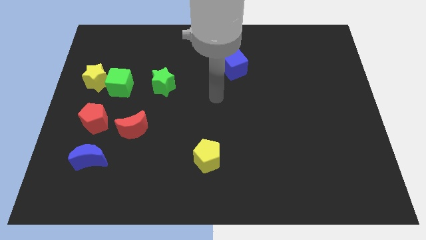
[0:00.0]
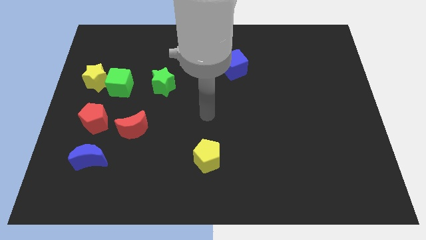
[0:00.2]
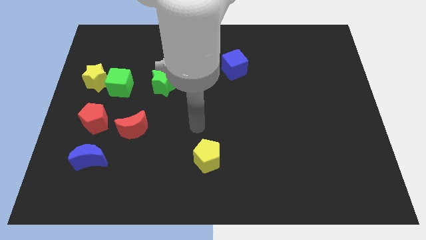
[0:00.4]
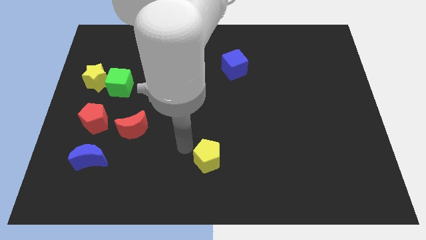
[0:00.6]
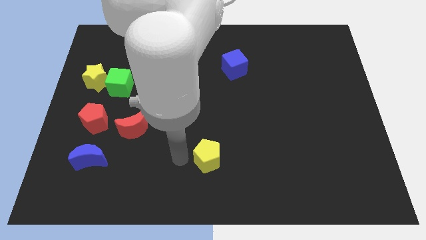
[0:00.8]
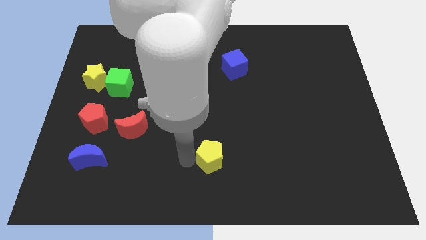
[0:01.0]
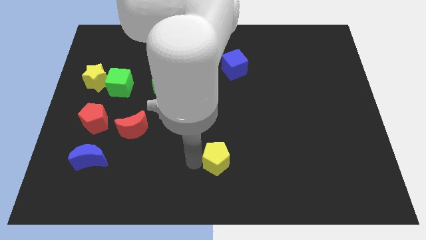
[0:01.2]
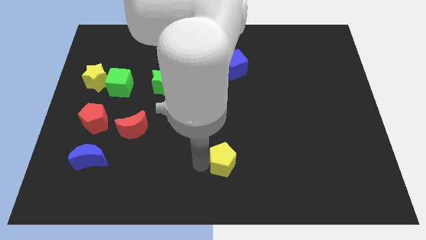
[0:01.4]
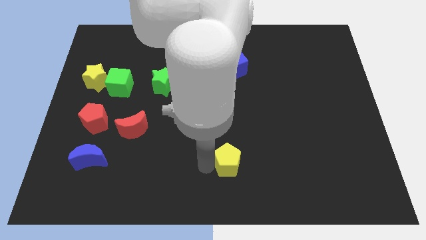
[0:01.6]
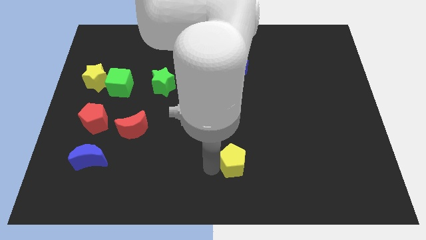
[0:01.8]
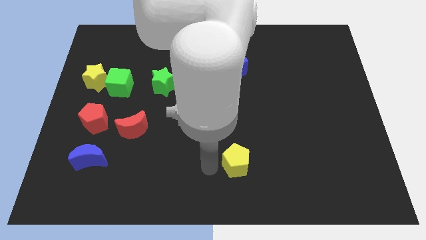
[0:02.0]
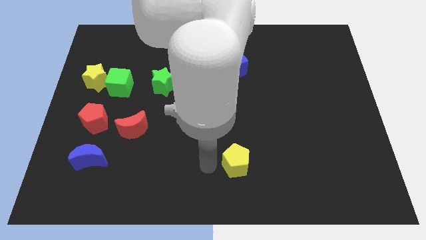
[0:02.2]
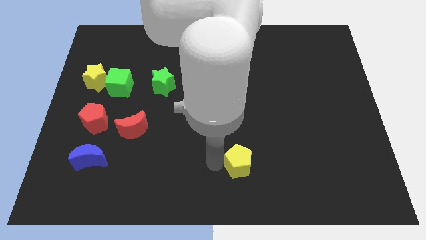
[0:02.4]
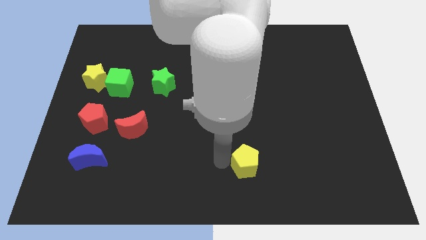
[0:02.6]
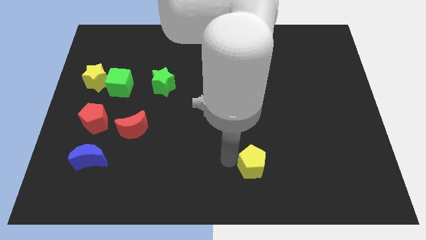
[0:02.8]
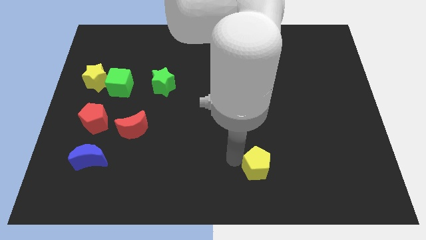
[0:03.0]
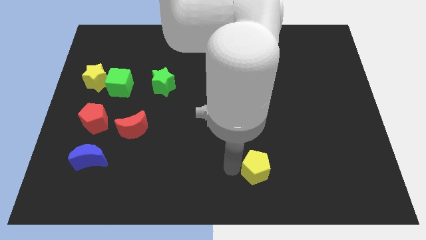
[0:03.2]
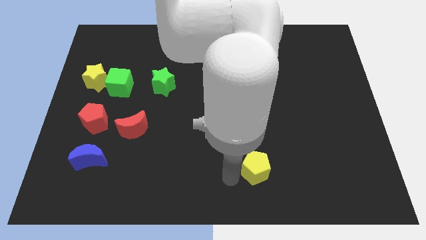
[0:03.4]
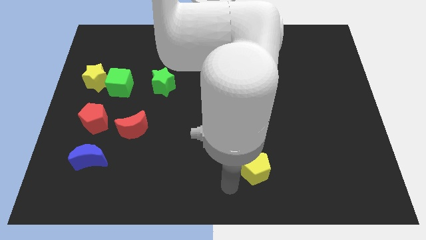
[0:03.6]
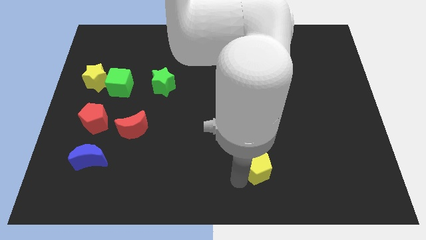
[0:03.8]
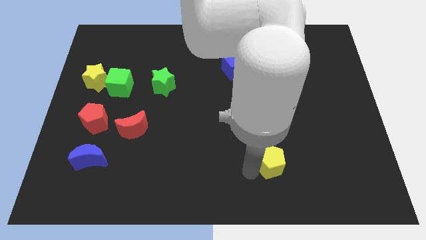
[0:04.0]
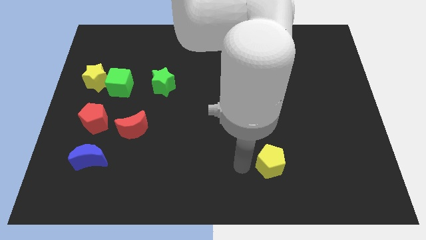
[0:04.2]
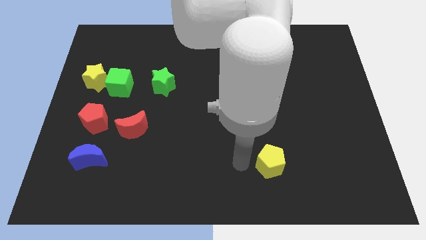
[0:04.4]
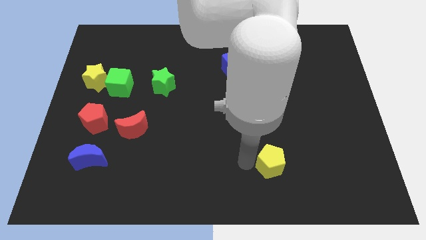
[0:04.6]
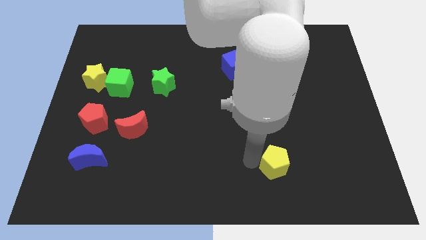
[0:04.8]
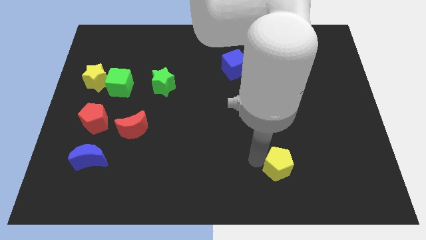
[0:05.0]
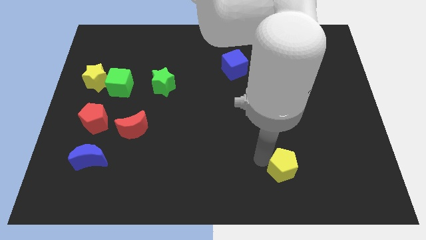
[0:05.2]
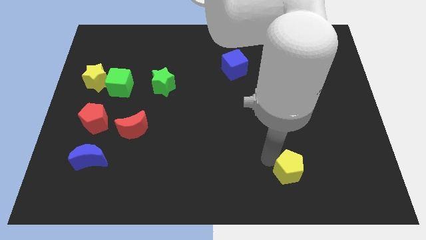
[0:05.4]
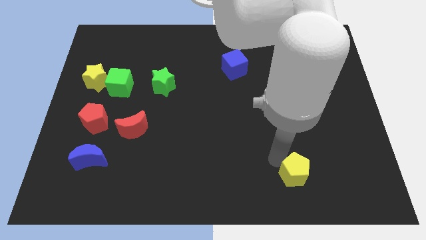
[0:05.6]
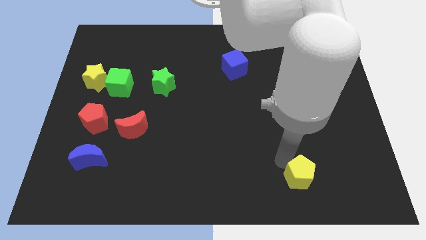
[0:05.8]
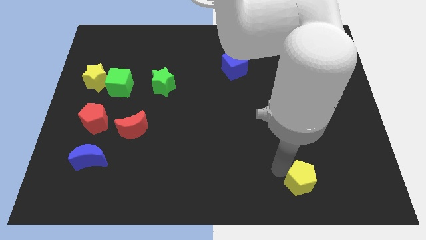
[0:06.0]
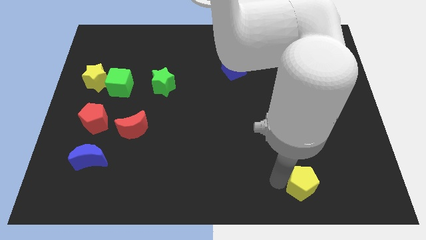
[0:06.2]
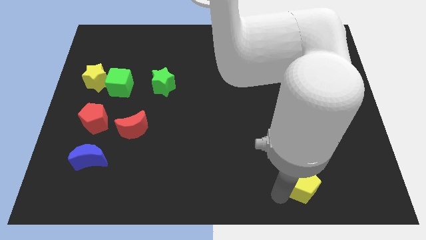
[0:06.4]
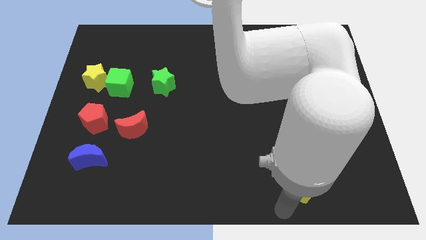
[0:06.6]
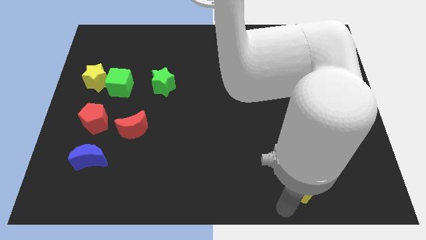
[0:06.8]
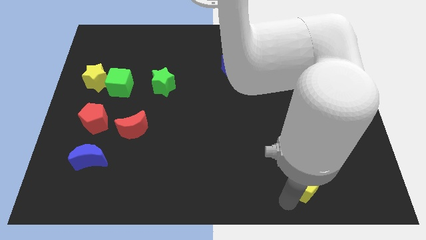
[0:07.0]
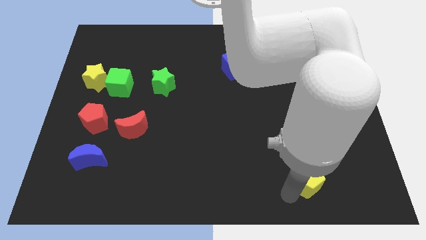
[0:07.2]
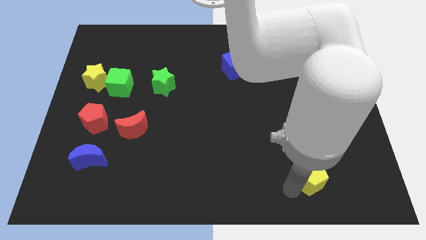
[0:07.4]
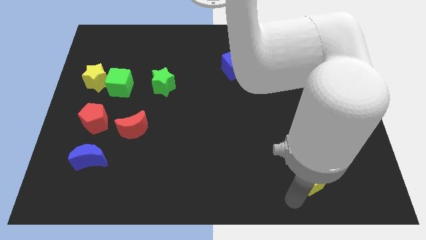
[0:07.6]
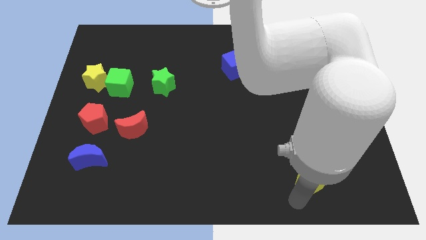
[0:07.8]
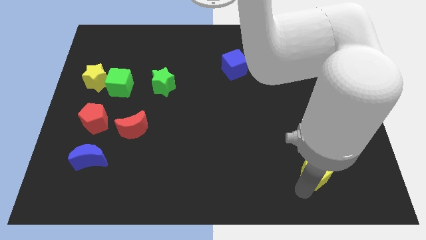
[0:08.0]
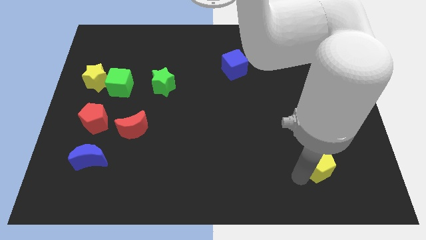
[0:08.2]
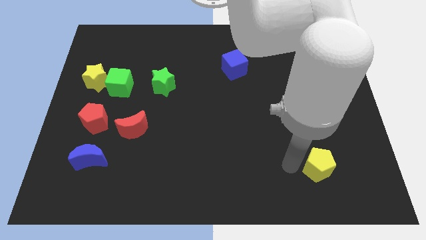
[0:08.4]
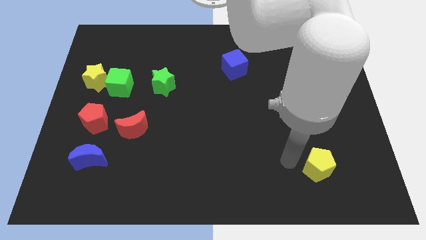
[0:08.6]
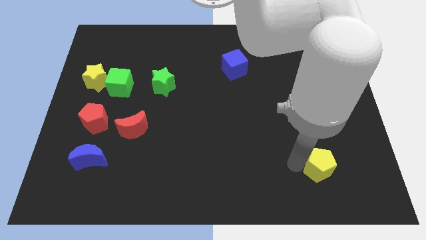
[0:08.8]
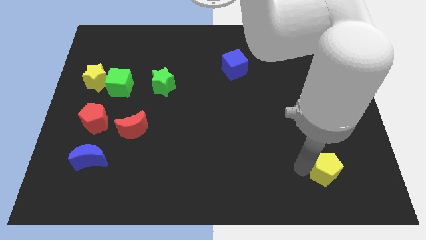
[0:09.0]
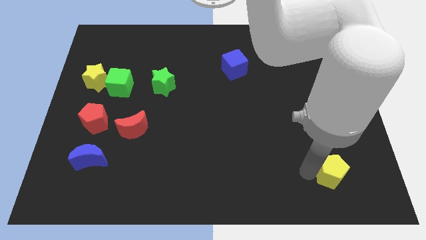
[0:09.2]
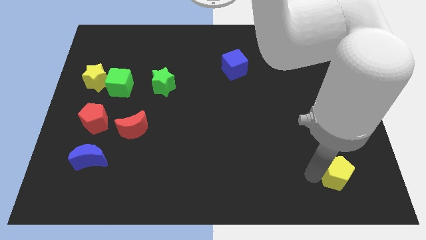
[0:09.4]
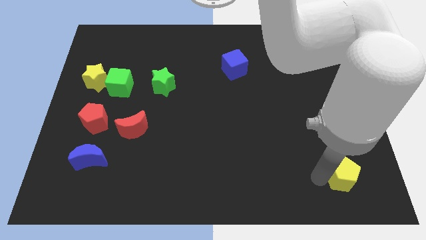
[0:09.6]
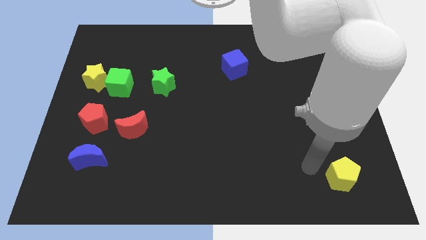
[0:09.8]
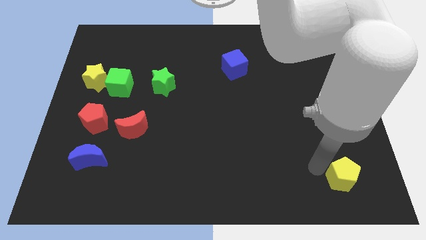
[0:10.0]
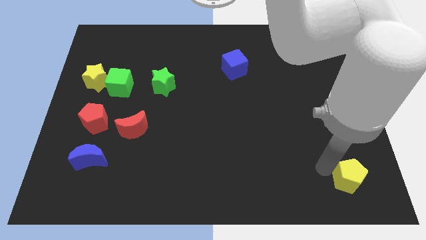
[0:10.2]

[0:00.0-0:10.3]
move the yellow pentagon to the lower right corner
